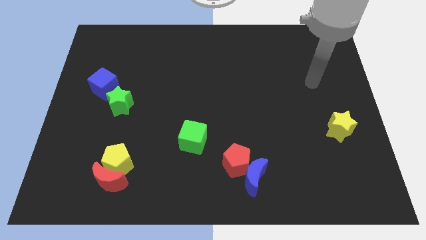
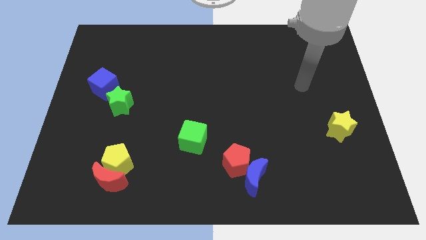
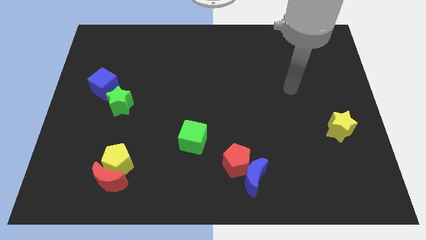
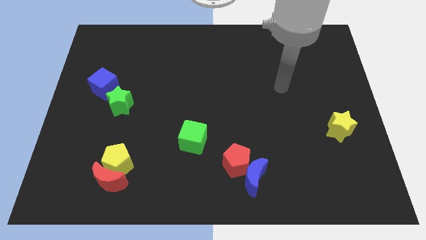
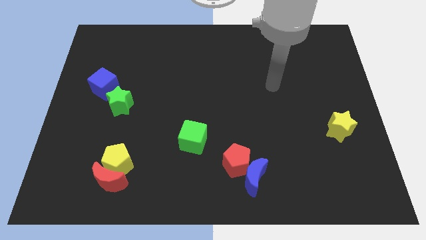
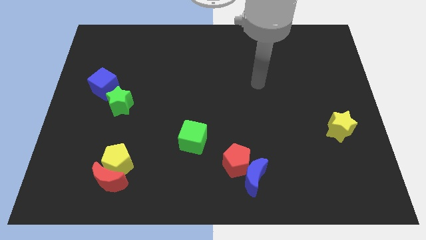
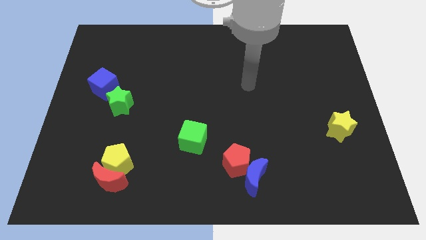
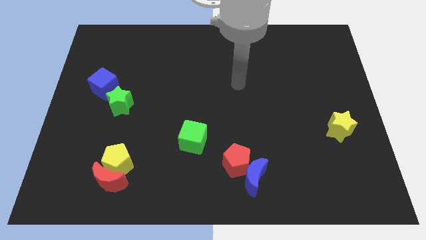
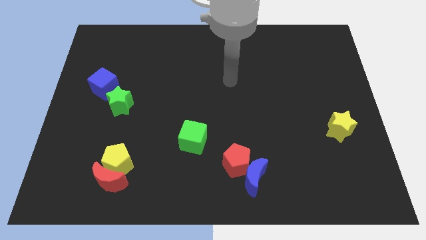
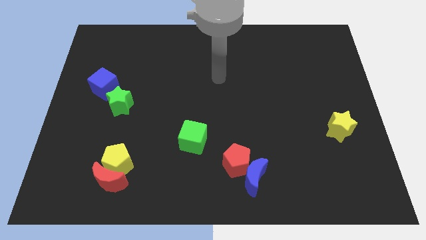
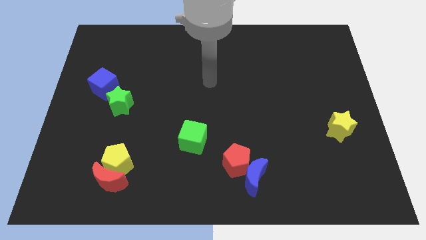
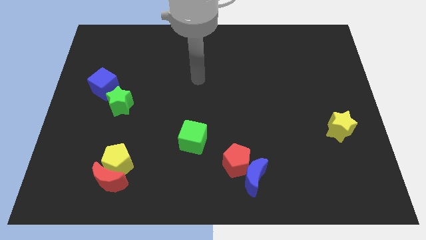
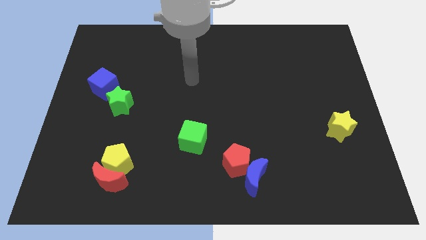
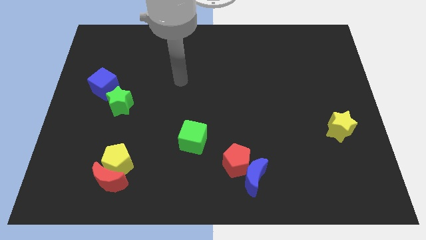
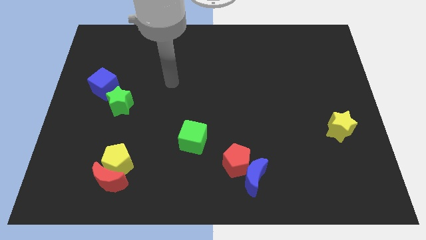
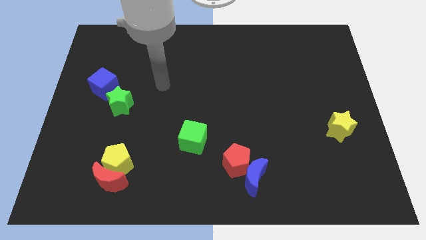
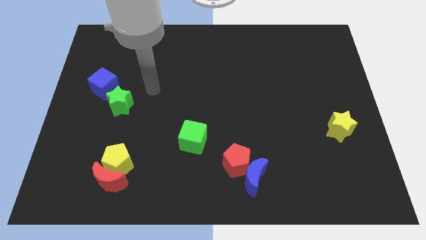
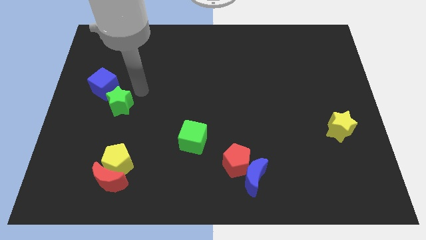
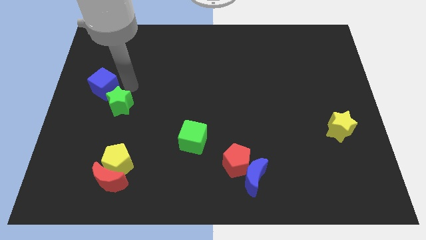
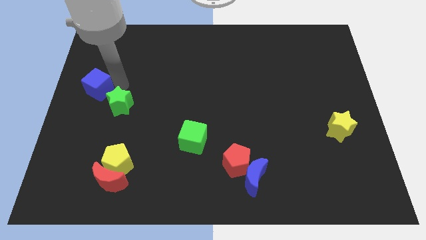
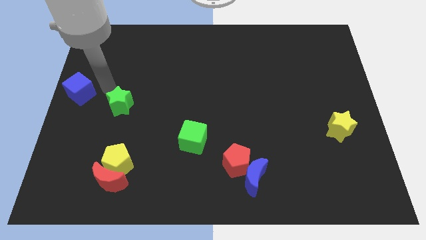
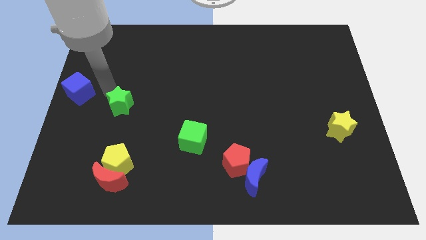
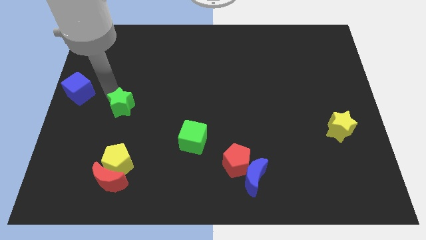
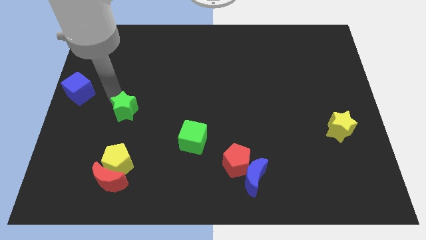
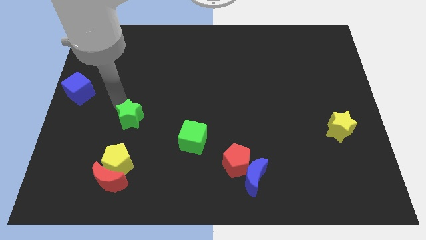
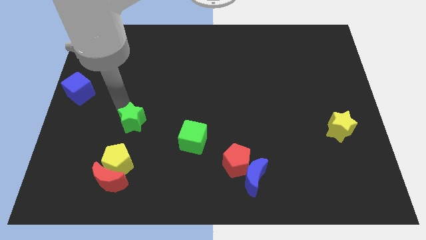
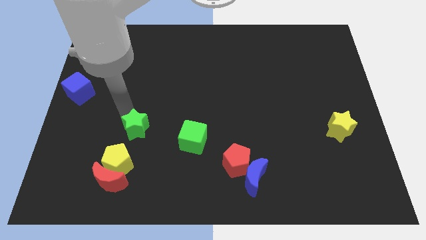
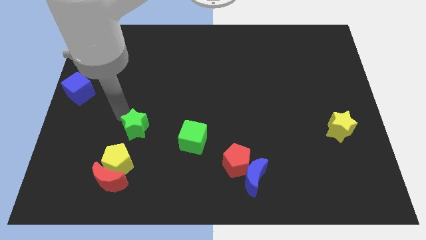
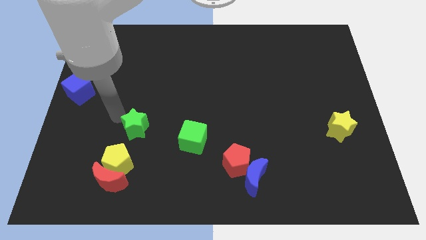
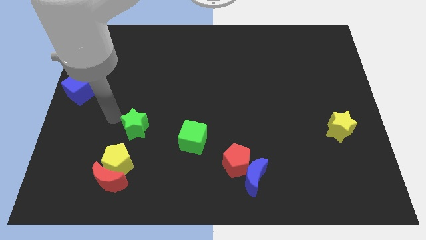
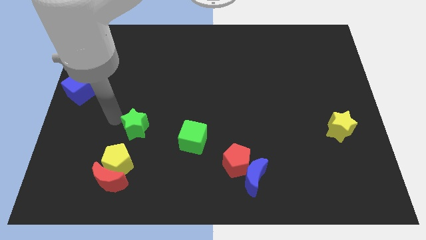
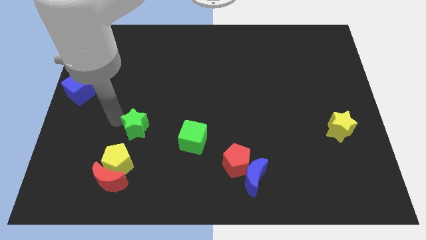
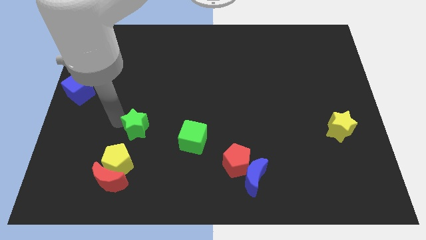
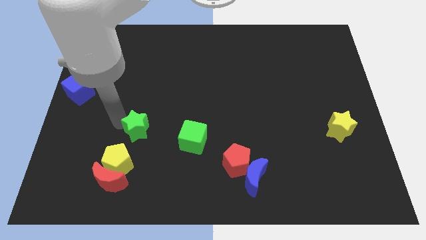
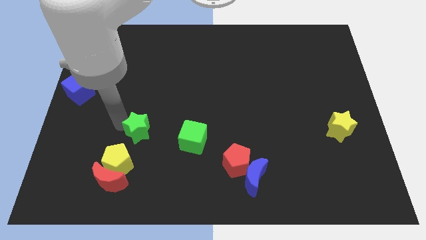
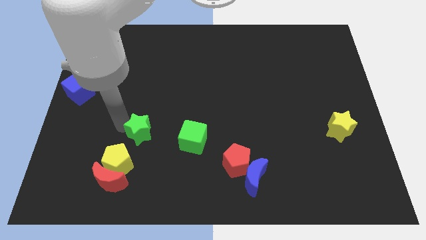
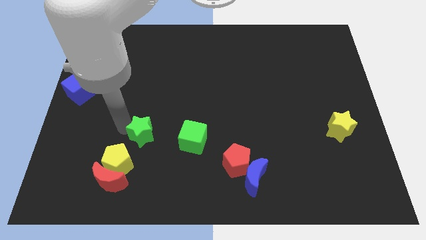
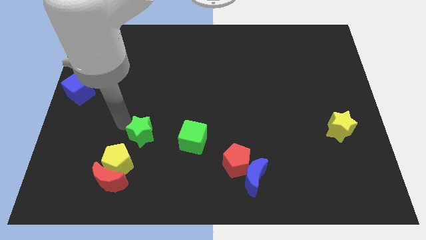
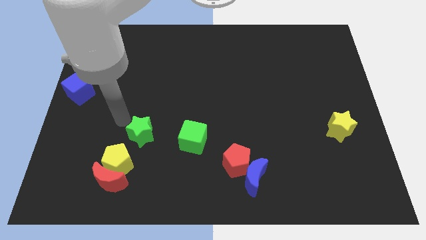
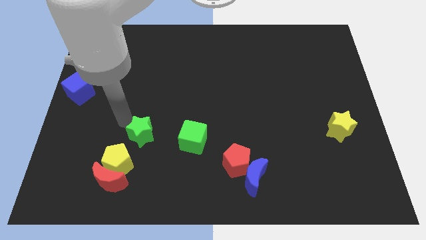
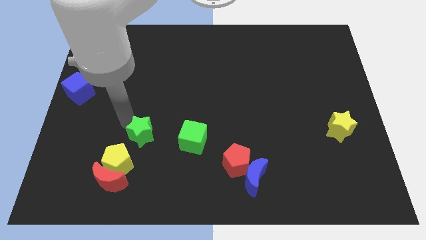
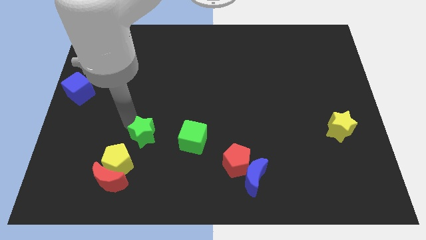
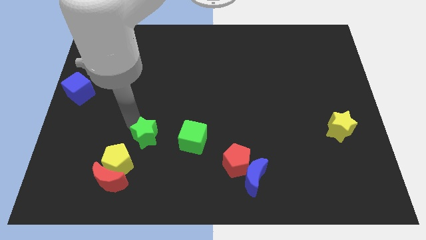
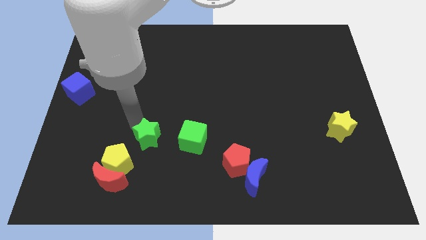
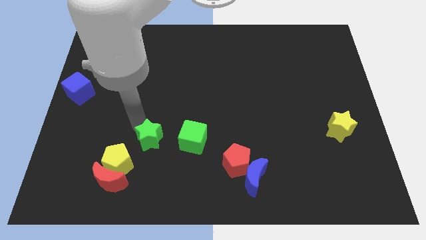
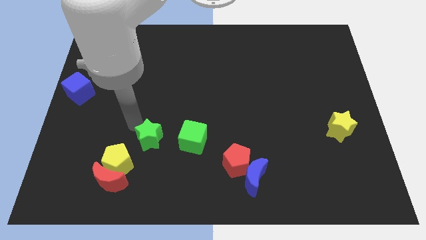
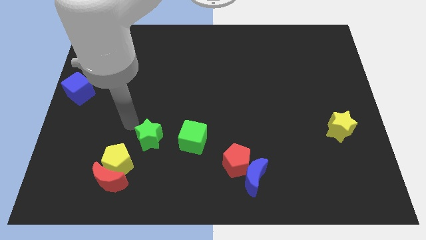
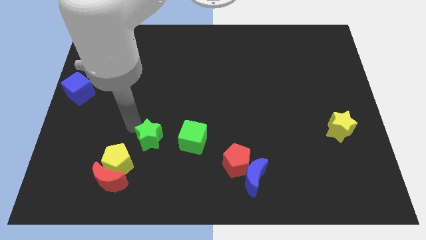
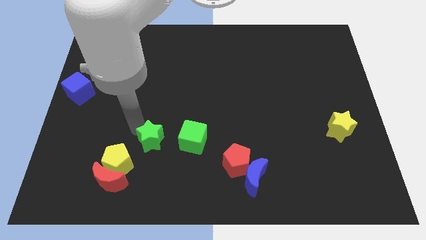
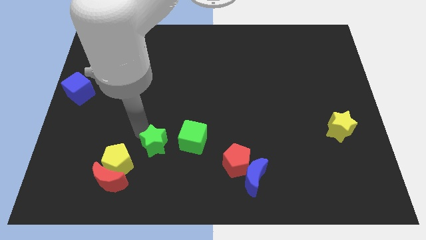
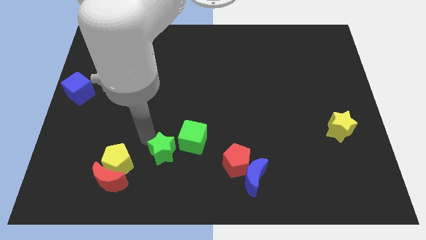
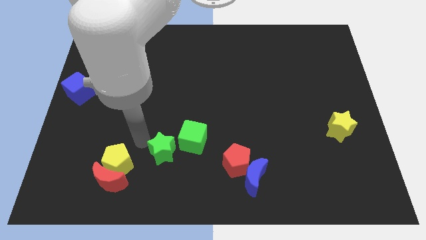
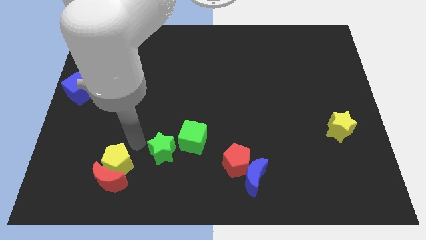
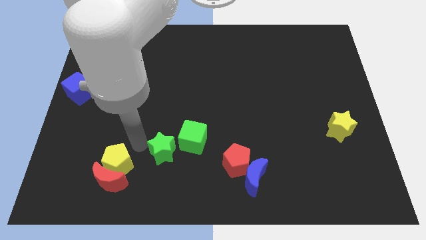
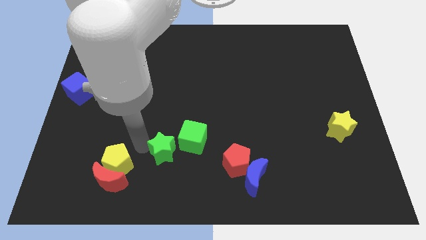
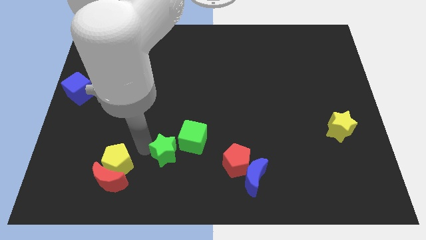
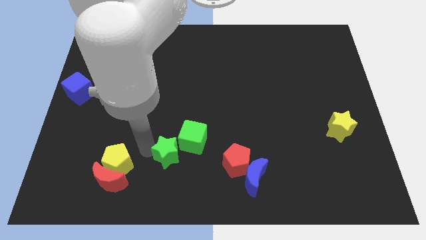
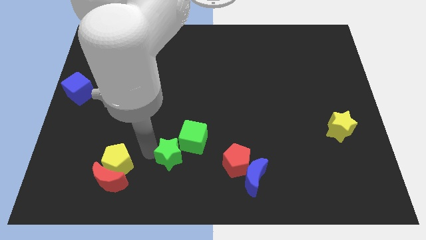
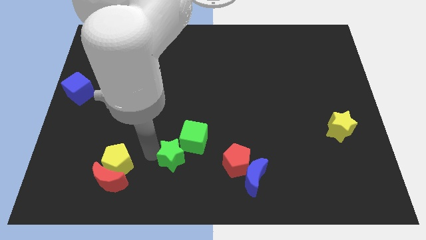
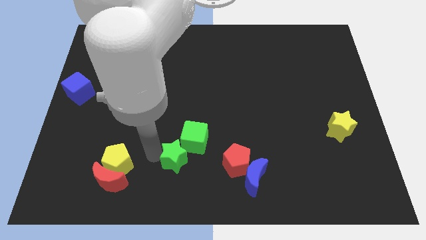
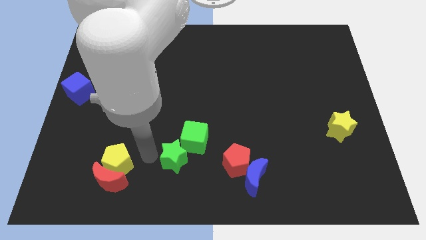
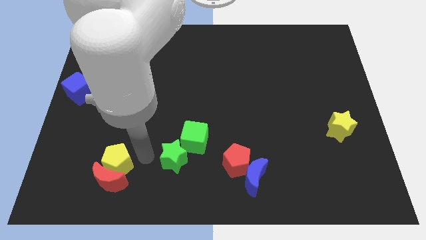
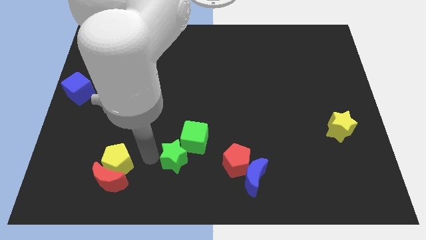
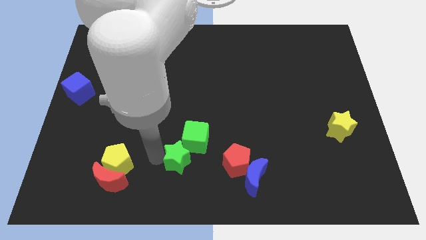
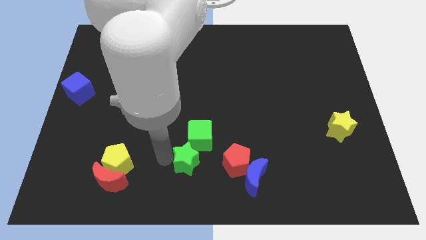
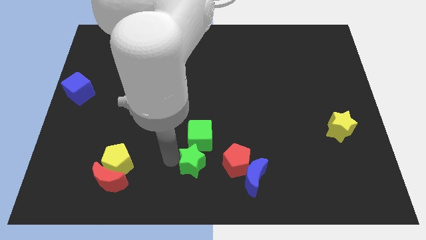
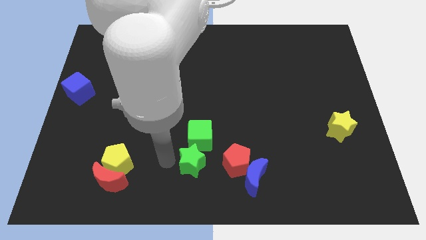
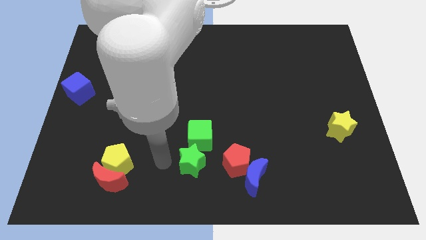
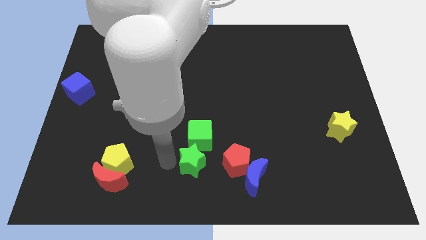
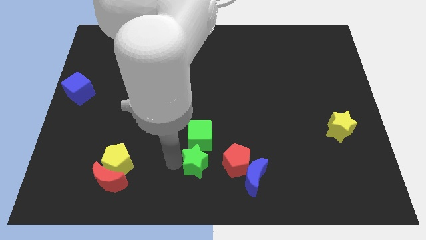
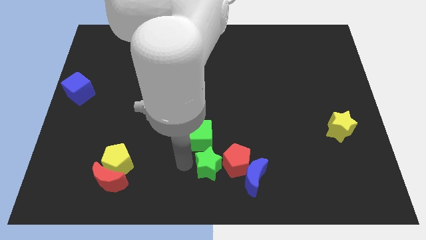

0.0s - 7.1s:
put the green star next to the red pentagon
